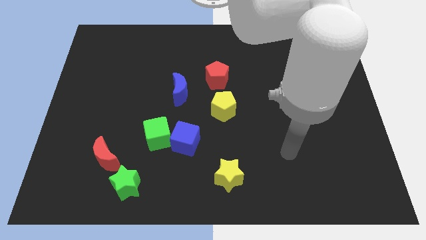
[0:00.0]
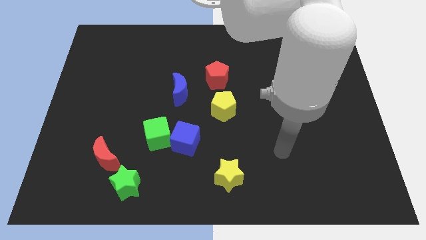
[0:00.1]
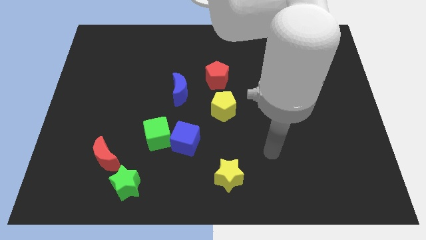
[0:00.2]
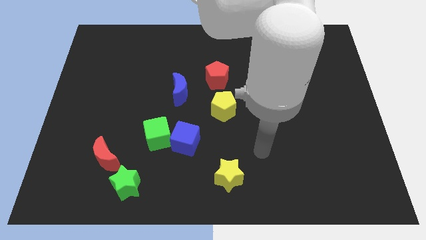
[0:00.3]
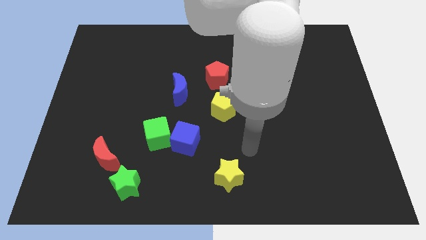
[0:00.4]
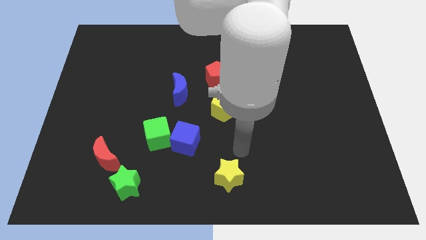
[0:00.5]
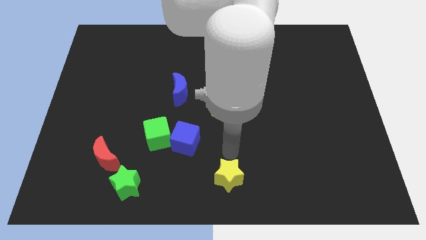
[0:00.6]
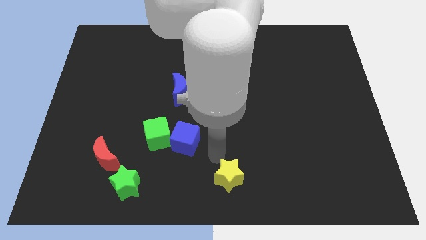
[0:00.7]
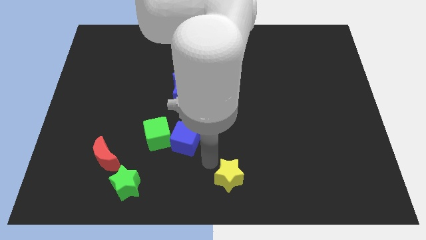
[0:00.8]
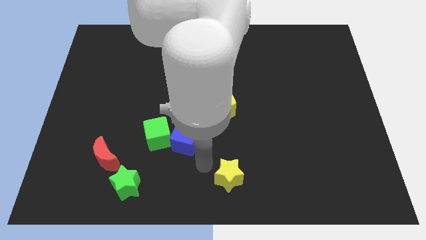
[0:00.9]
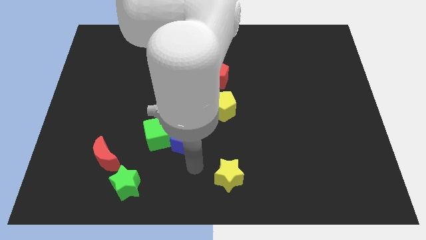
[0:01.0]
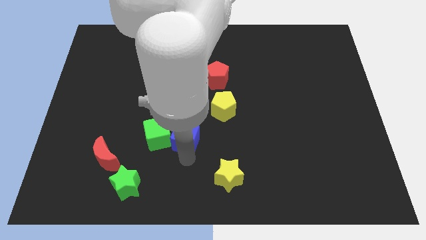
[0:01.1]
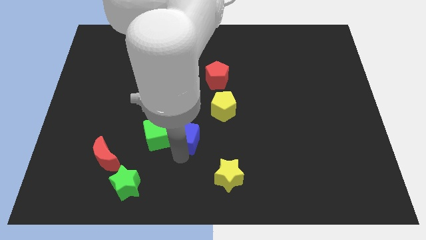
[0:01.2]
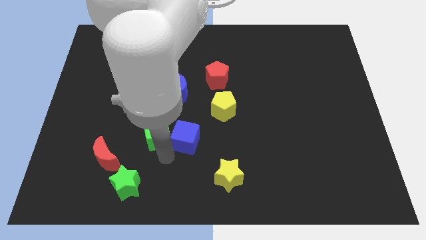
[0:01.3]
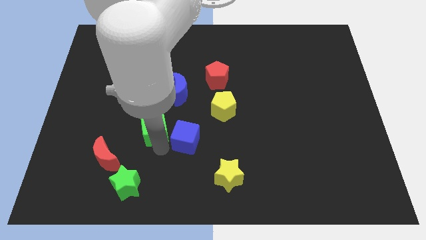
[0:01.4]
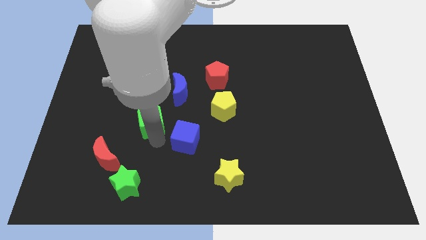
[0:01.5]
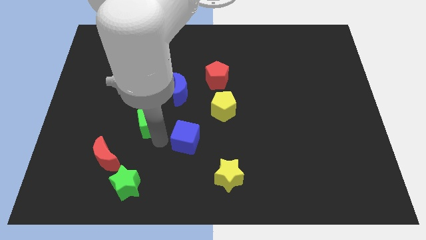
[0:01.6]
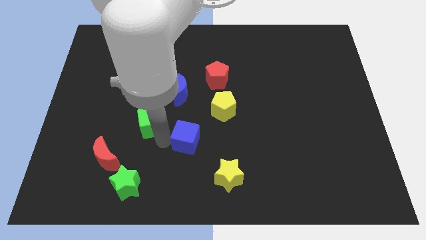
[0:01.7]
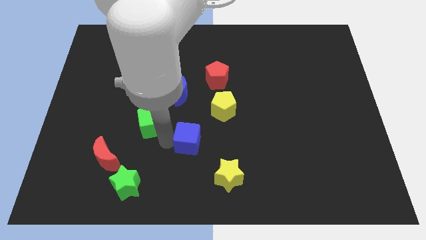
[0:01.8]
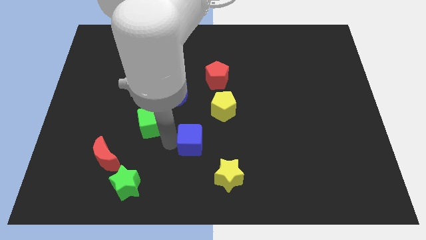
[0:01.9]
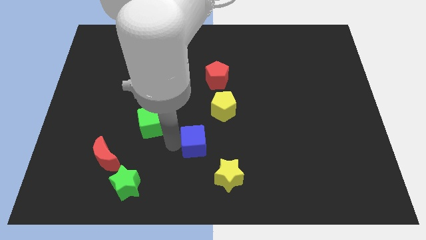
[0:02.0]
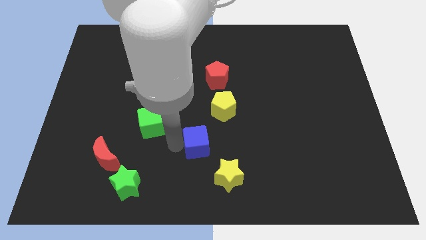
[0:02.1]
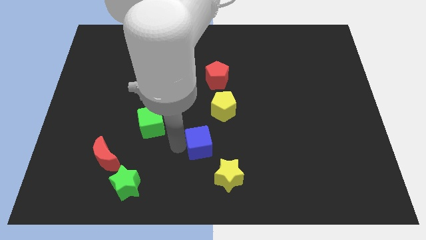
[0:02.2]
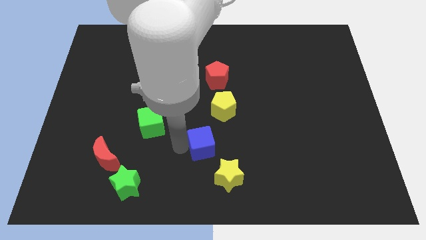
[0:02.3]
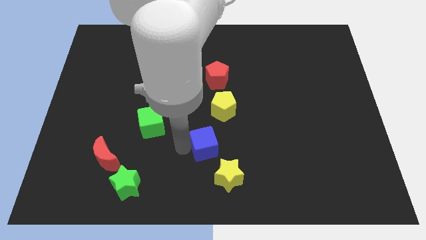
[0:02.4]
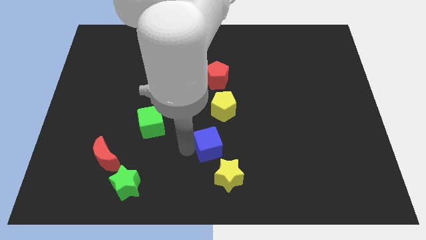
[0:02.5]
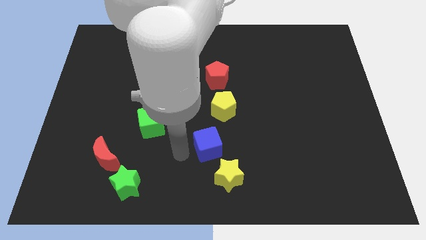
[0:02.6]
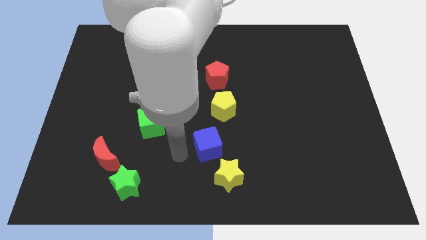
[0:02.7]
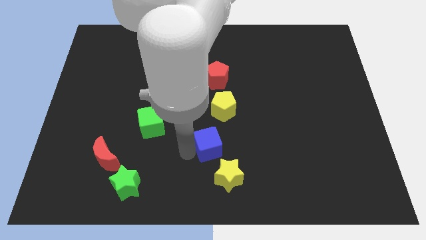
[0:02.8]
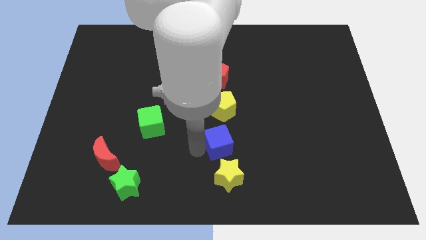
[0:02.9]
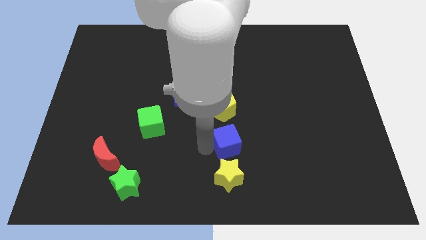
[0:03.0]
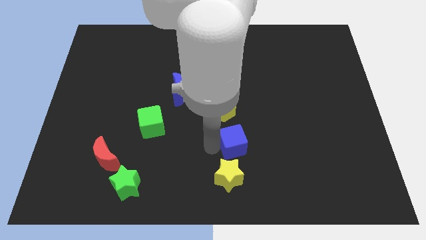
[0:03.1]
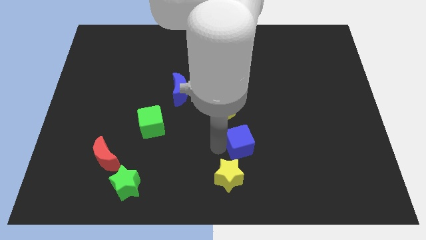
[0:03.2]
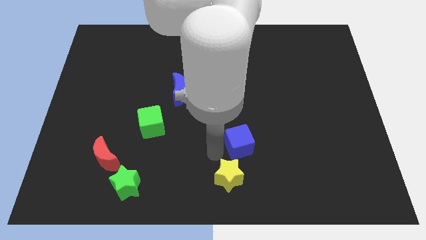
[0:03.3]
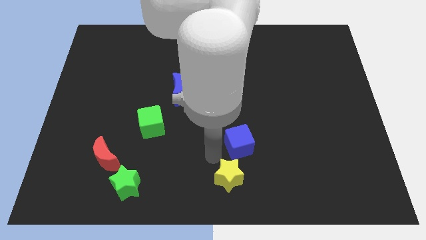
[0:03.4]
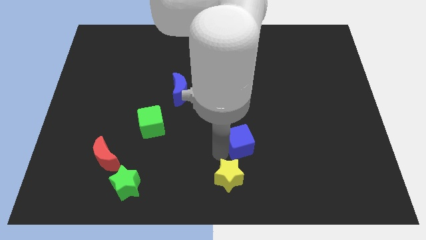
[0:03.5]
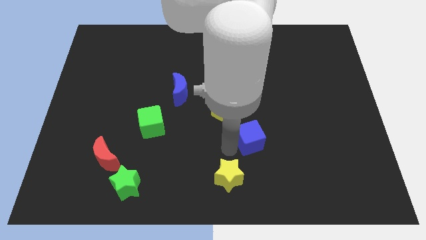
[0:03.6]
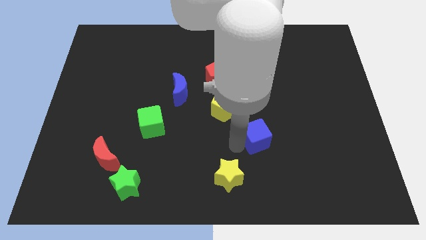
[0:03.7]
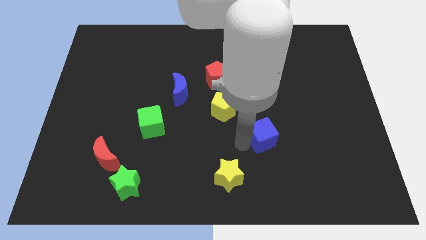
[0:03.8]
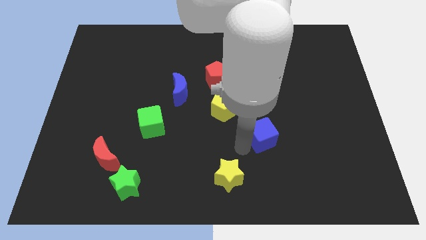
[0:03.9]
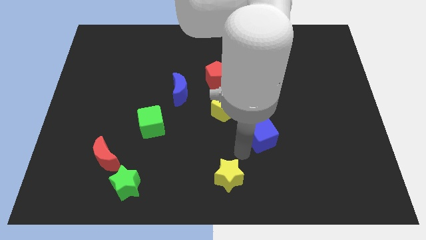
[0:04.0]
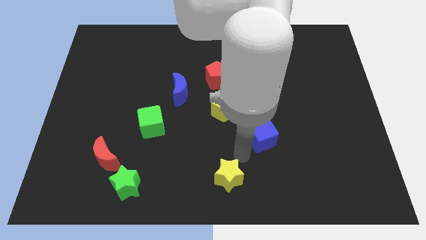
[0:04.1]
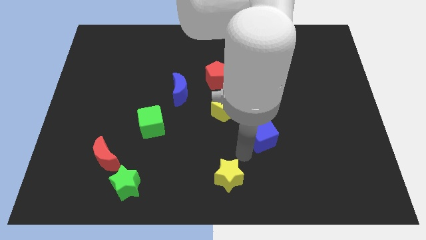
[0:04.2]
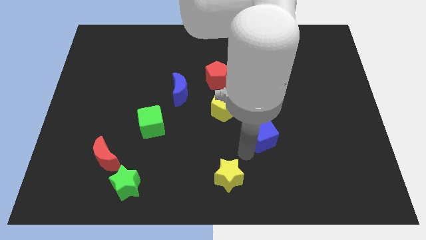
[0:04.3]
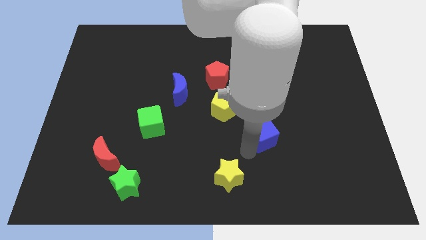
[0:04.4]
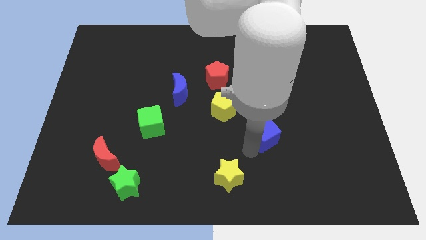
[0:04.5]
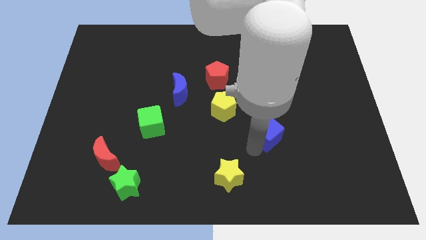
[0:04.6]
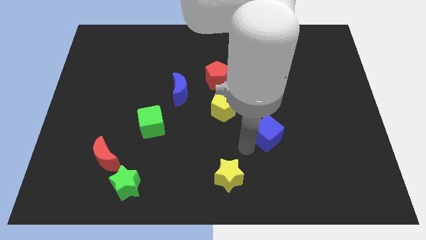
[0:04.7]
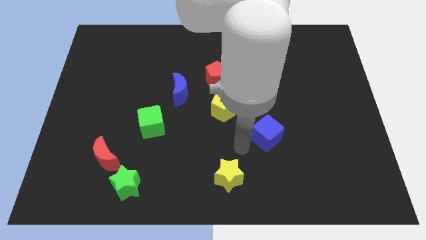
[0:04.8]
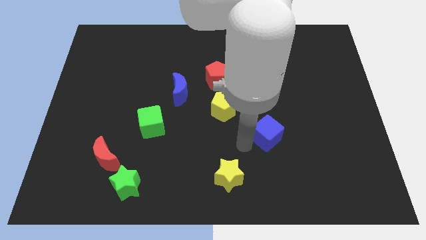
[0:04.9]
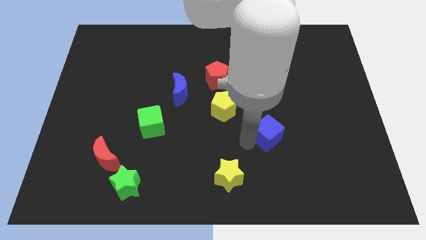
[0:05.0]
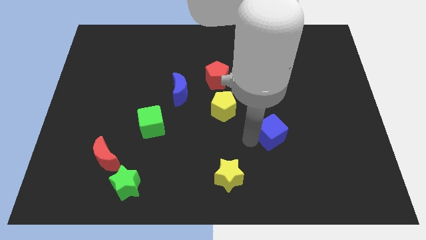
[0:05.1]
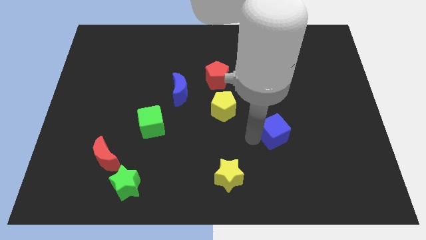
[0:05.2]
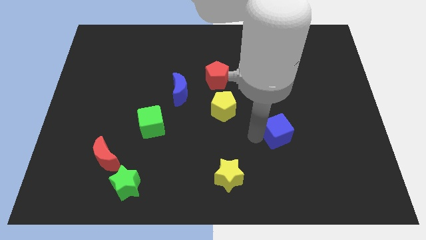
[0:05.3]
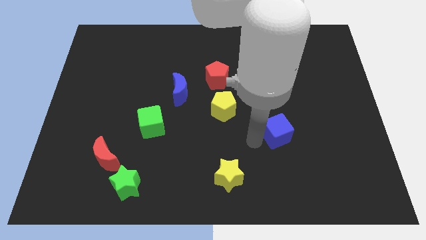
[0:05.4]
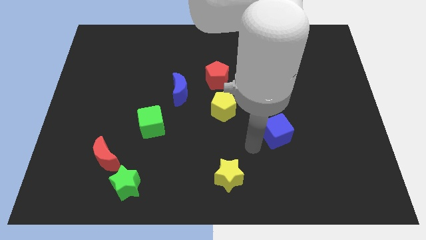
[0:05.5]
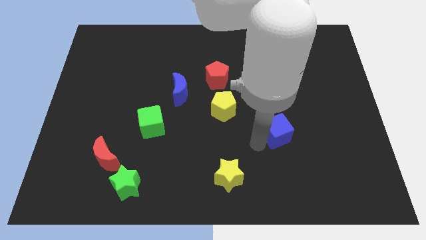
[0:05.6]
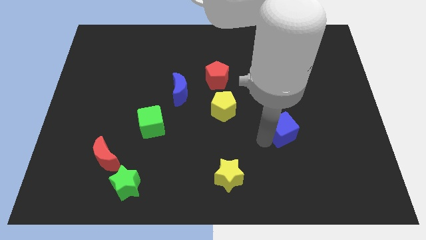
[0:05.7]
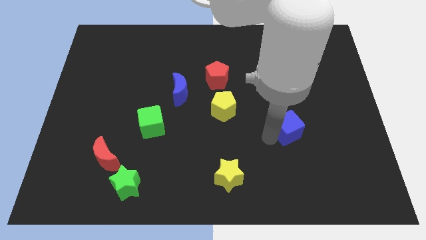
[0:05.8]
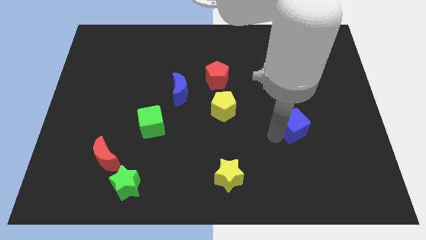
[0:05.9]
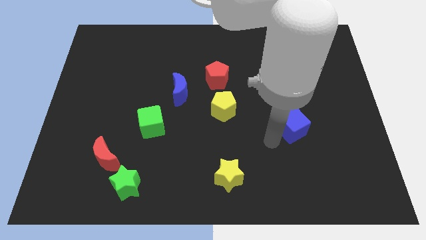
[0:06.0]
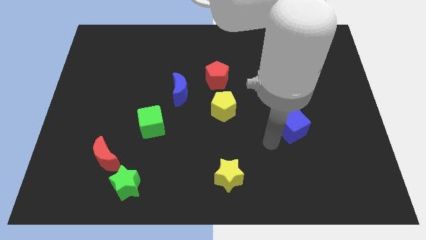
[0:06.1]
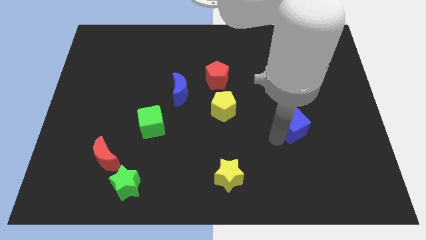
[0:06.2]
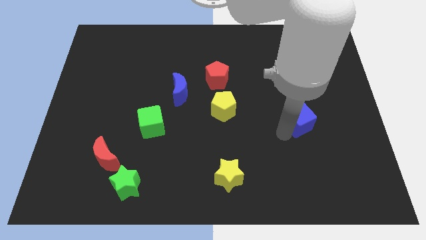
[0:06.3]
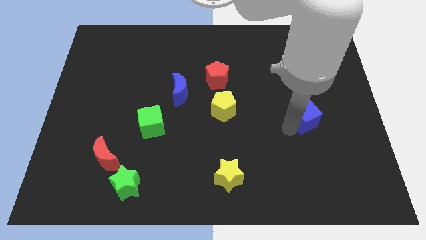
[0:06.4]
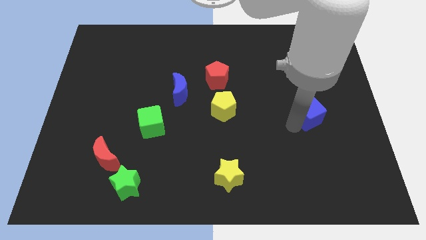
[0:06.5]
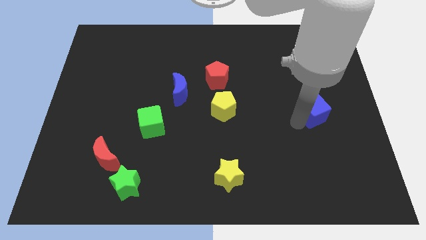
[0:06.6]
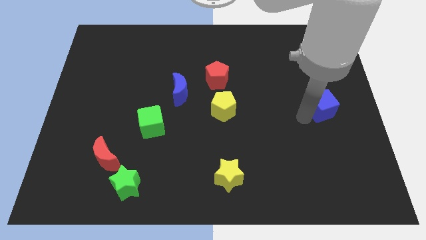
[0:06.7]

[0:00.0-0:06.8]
move the blue cube to the right side of the board

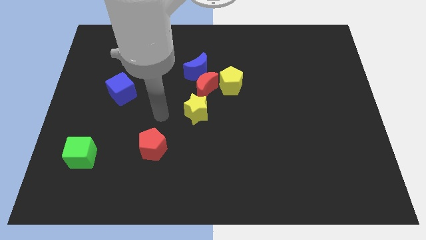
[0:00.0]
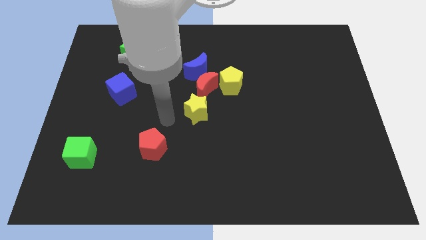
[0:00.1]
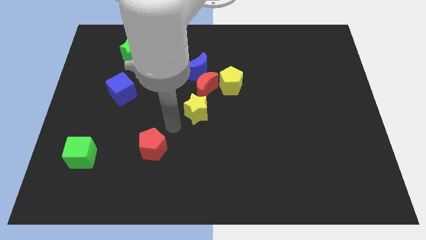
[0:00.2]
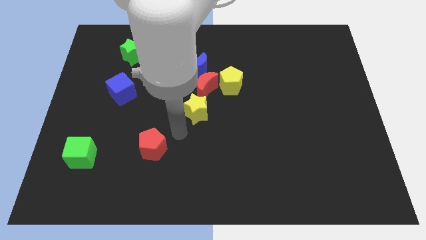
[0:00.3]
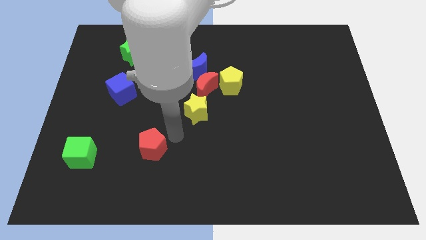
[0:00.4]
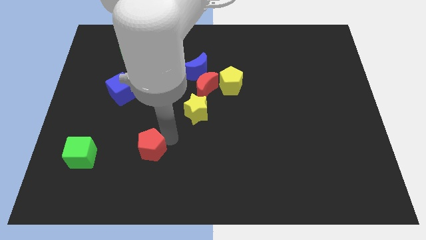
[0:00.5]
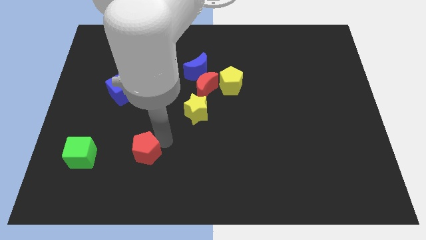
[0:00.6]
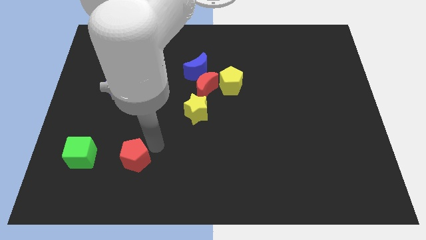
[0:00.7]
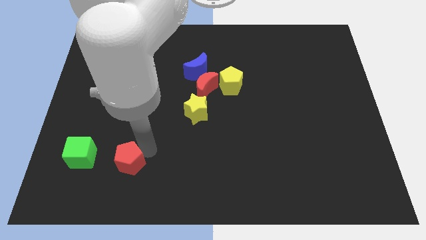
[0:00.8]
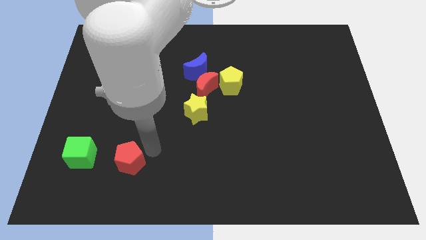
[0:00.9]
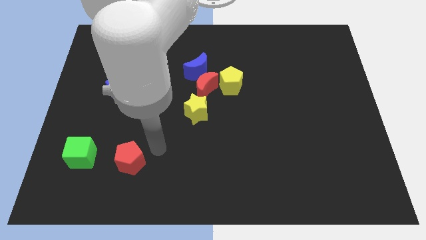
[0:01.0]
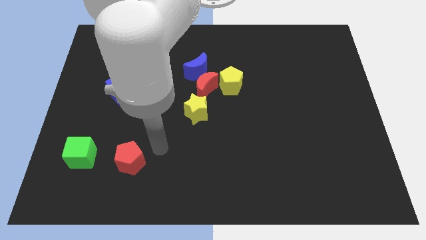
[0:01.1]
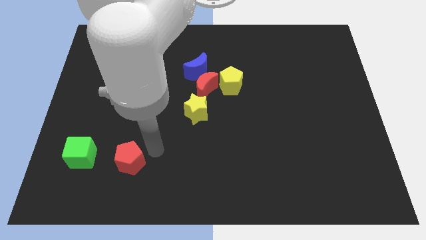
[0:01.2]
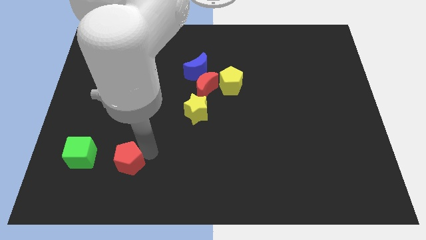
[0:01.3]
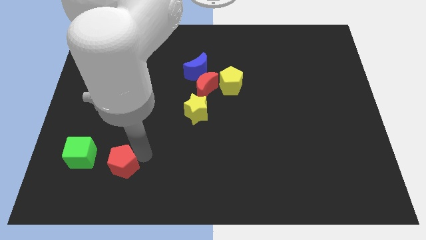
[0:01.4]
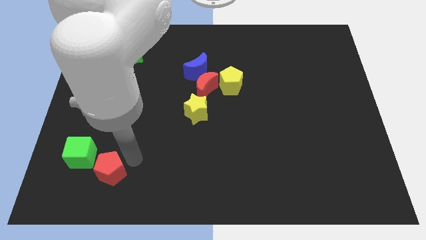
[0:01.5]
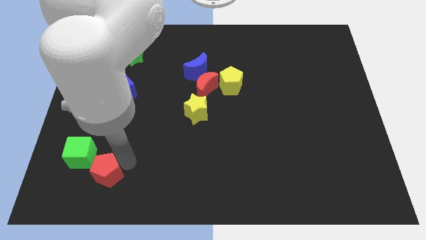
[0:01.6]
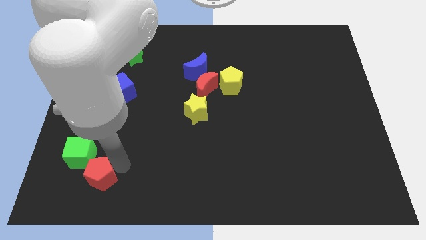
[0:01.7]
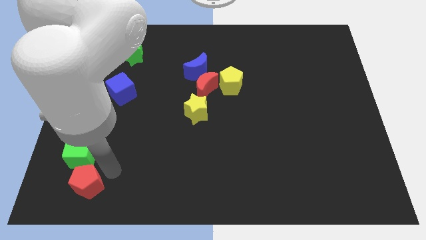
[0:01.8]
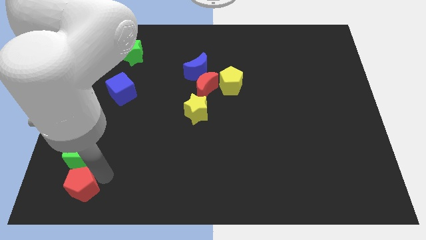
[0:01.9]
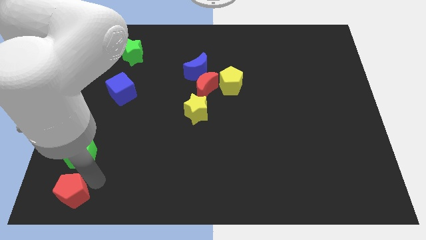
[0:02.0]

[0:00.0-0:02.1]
move the red pentagon to the lower left corner
